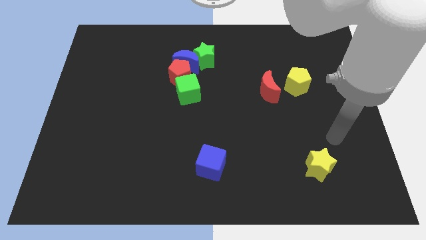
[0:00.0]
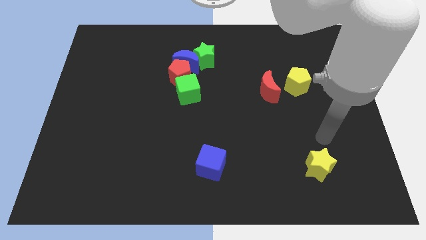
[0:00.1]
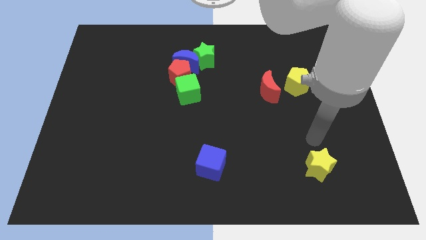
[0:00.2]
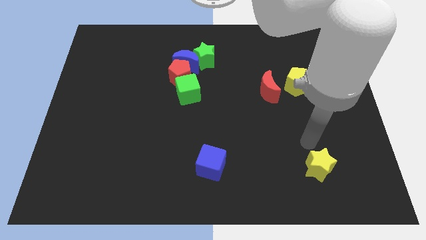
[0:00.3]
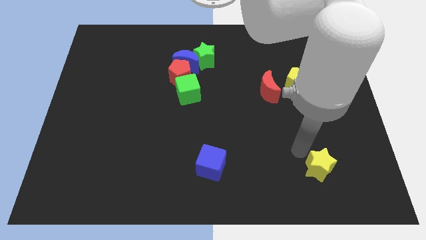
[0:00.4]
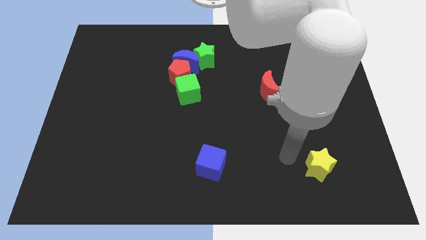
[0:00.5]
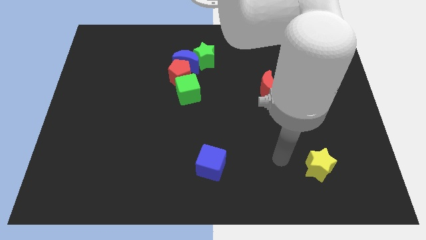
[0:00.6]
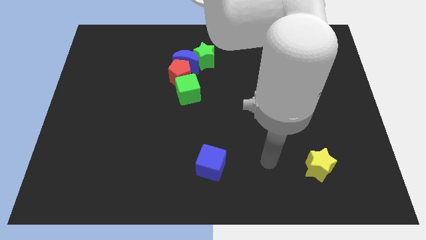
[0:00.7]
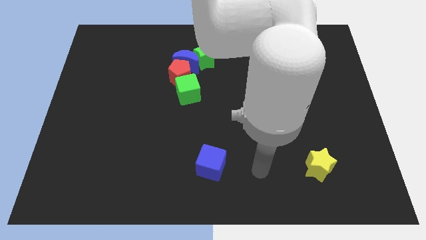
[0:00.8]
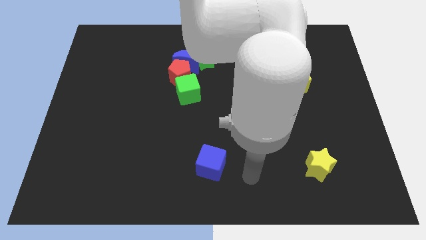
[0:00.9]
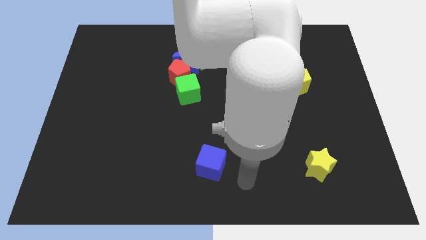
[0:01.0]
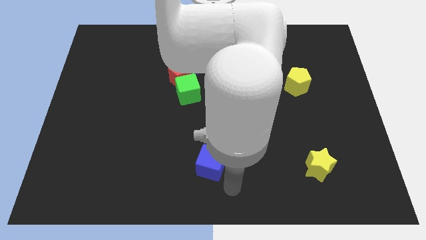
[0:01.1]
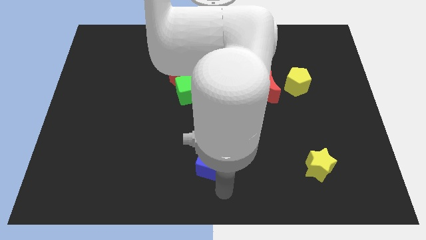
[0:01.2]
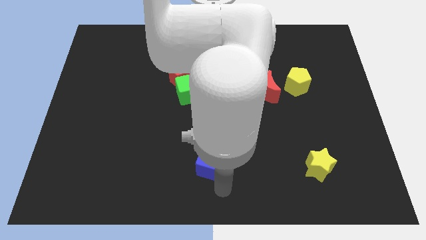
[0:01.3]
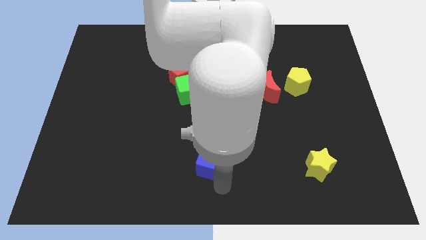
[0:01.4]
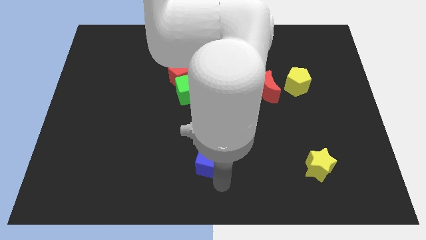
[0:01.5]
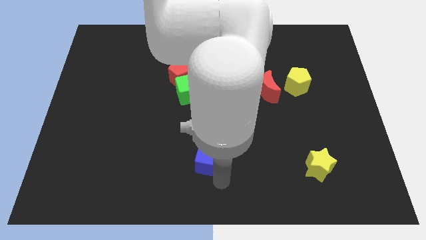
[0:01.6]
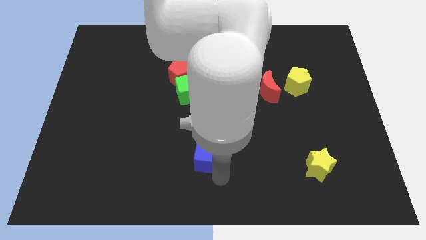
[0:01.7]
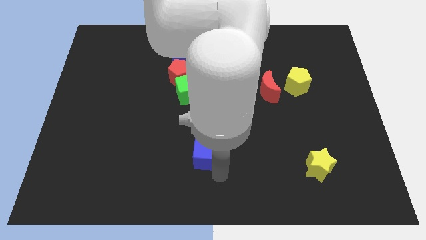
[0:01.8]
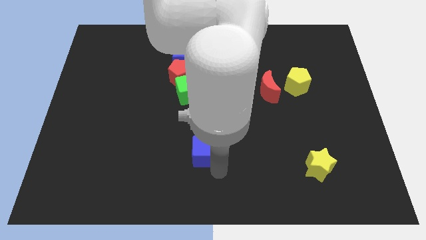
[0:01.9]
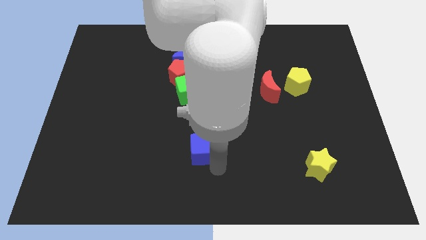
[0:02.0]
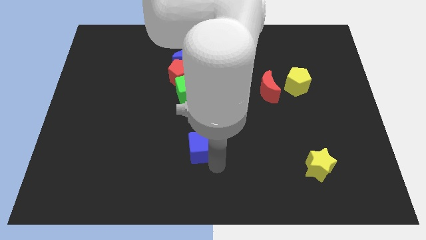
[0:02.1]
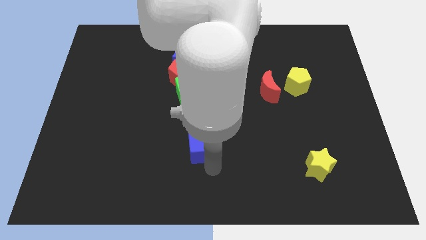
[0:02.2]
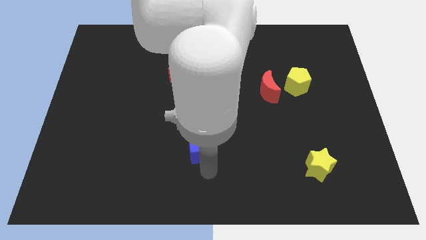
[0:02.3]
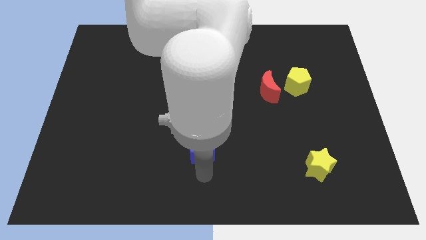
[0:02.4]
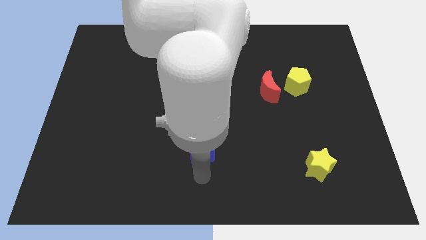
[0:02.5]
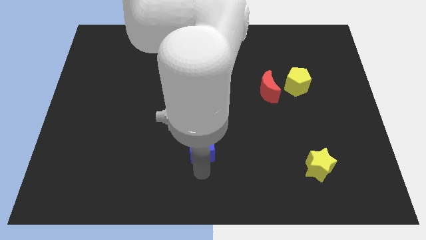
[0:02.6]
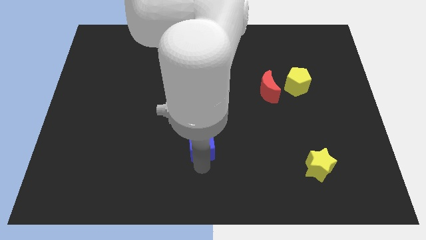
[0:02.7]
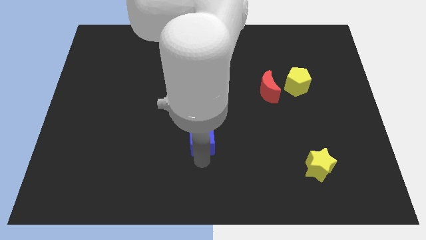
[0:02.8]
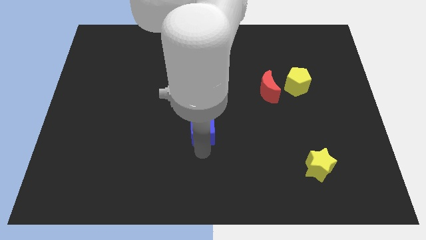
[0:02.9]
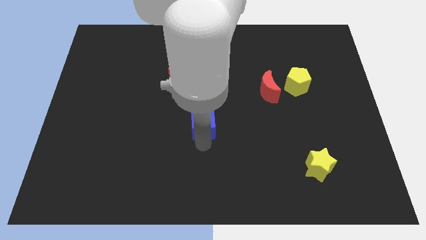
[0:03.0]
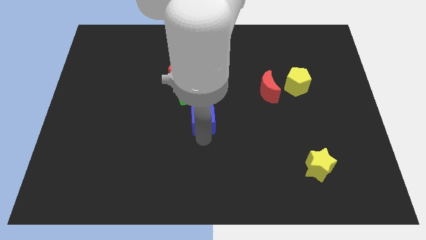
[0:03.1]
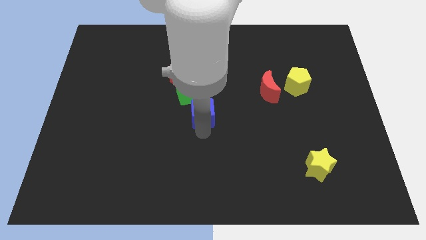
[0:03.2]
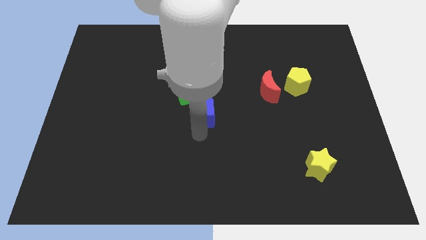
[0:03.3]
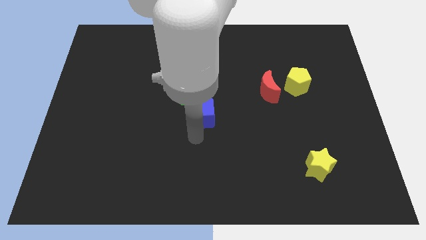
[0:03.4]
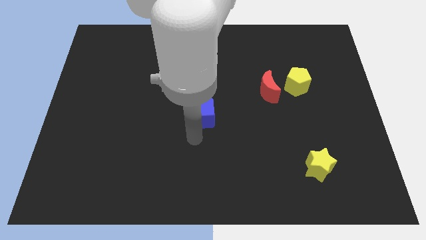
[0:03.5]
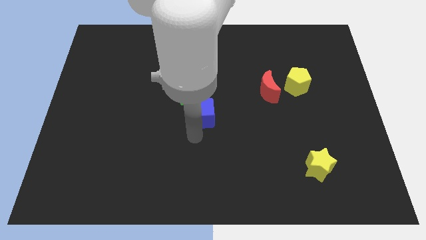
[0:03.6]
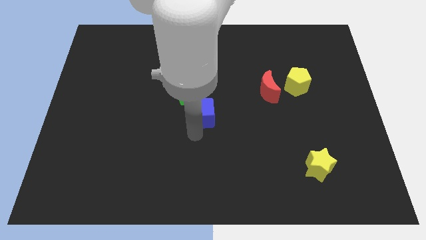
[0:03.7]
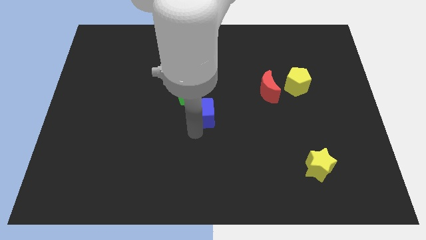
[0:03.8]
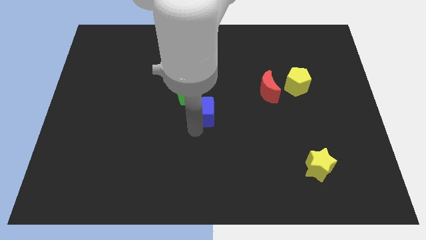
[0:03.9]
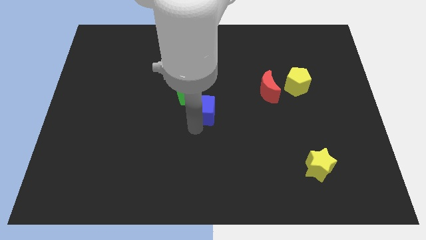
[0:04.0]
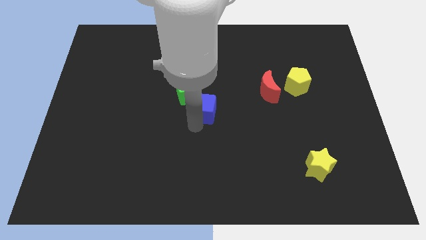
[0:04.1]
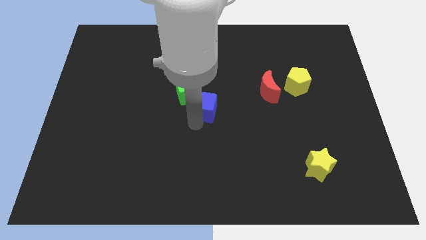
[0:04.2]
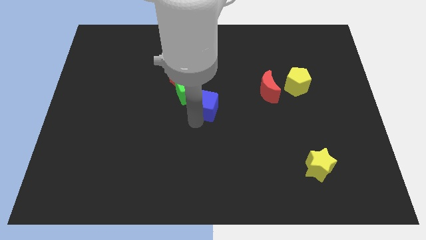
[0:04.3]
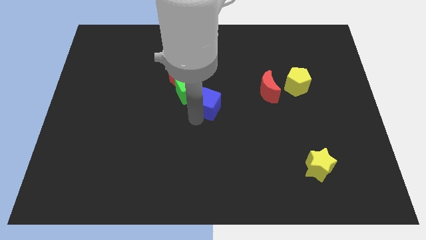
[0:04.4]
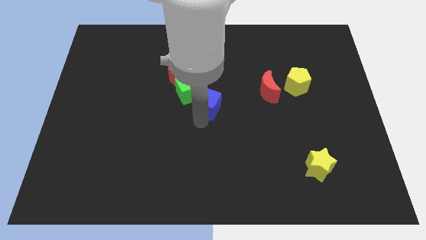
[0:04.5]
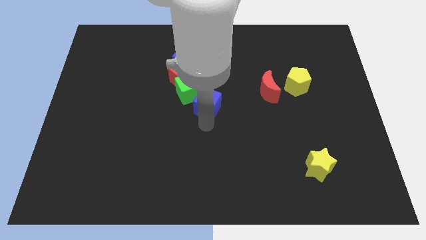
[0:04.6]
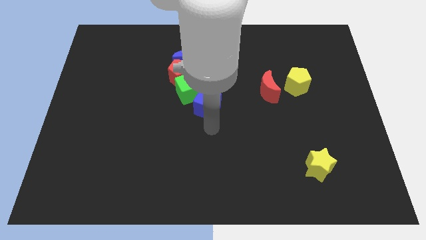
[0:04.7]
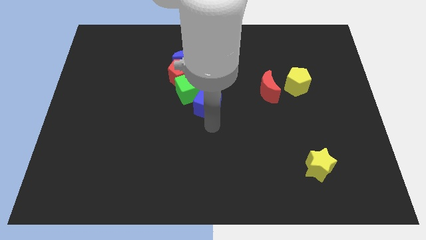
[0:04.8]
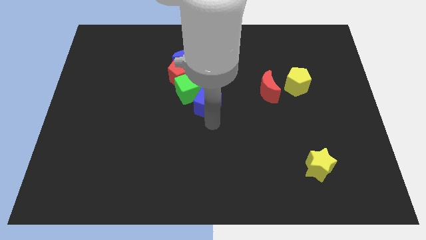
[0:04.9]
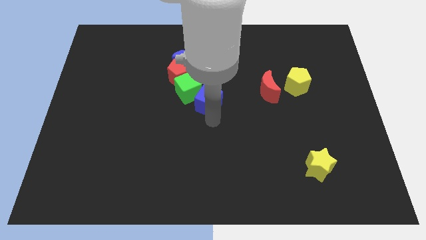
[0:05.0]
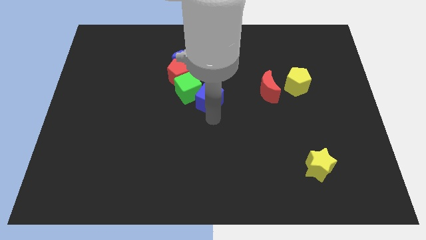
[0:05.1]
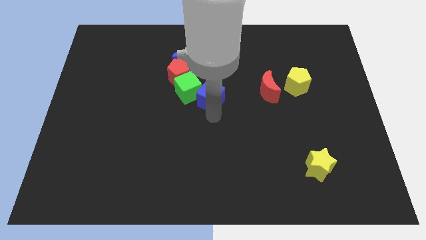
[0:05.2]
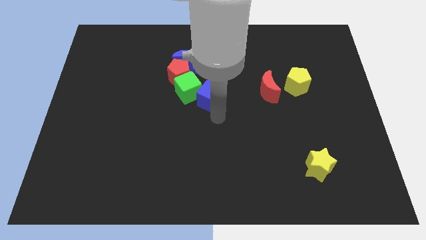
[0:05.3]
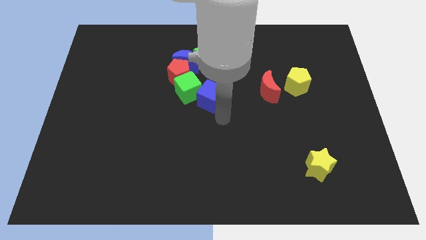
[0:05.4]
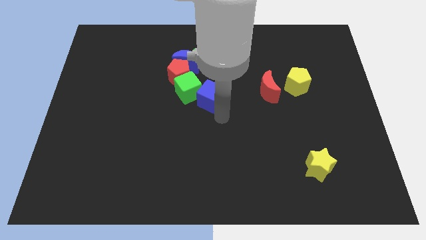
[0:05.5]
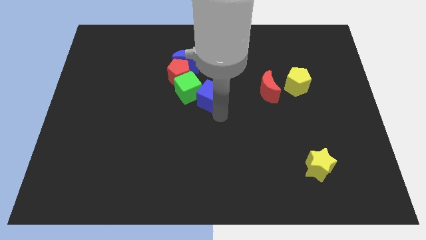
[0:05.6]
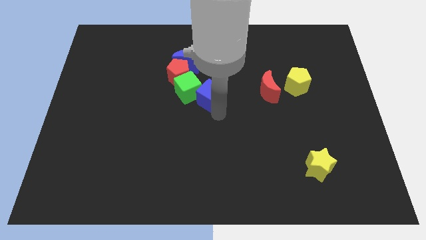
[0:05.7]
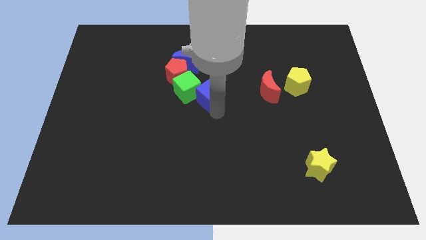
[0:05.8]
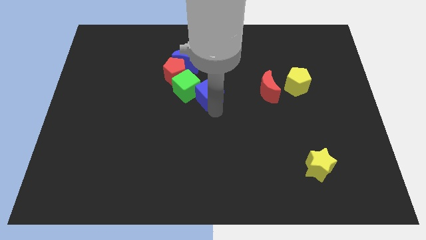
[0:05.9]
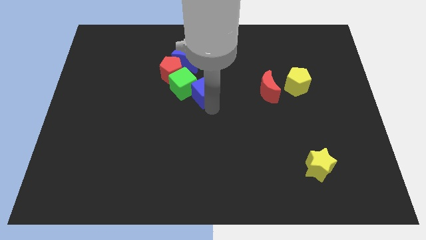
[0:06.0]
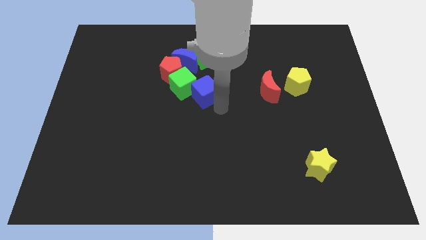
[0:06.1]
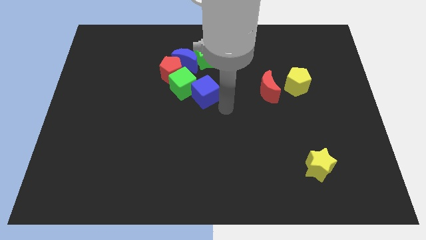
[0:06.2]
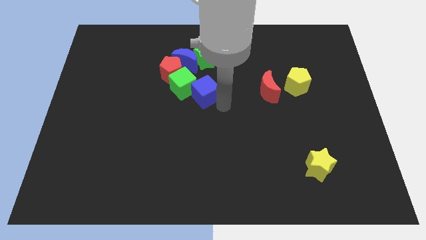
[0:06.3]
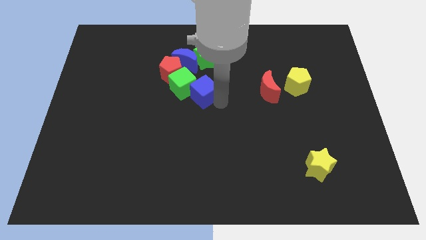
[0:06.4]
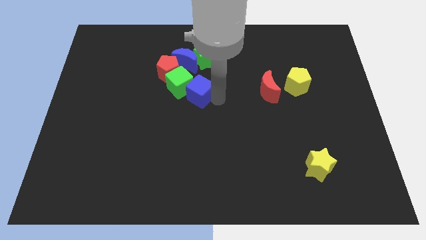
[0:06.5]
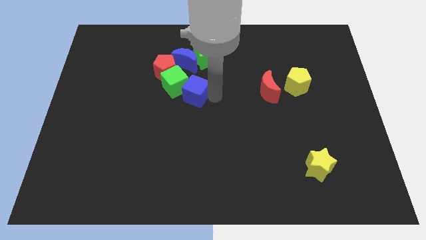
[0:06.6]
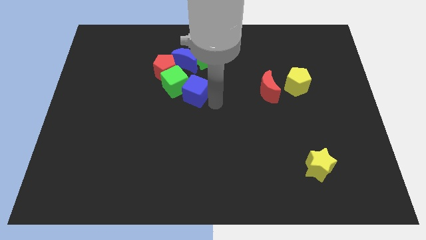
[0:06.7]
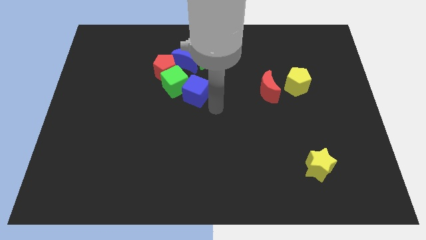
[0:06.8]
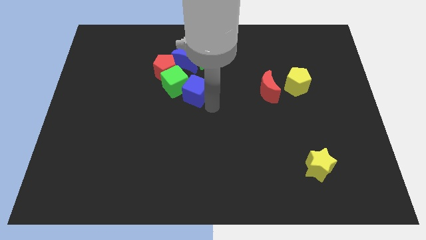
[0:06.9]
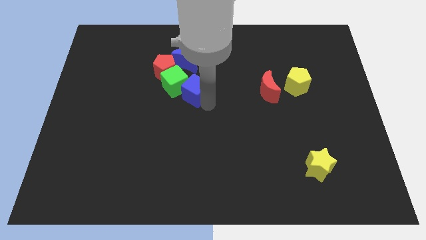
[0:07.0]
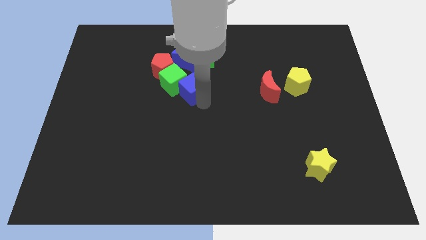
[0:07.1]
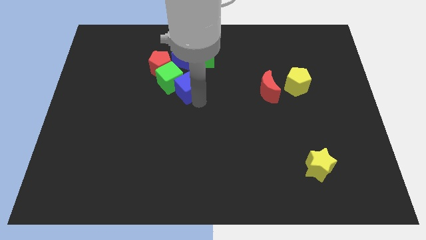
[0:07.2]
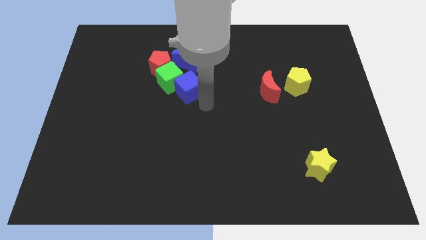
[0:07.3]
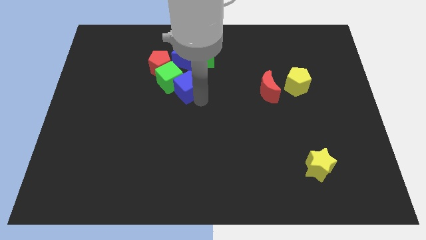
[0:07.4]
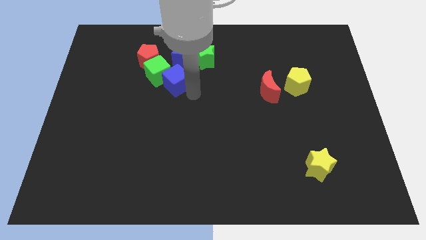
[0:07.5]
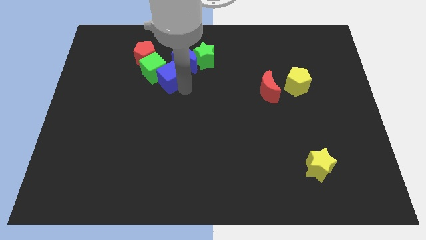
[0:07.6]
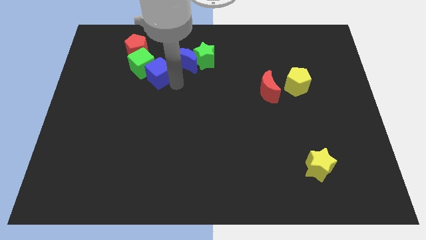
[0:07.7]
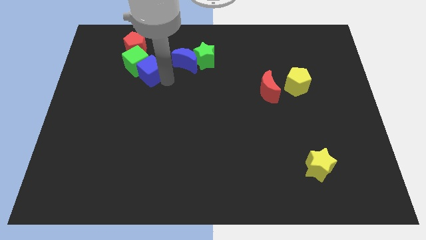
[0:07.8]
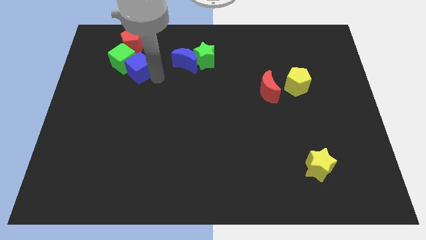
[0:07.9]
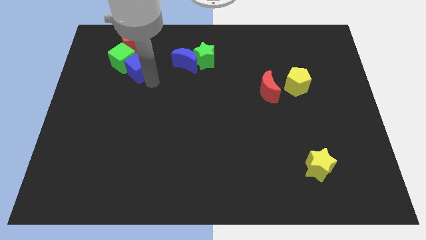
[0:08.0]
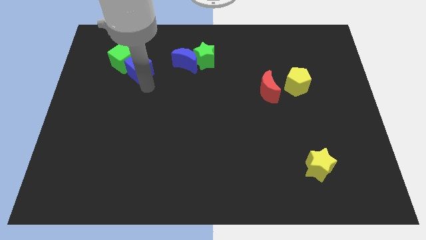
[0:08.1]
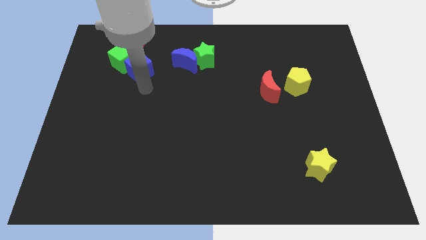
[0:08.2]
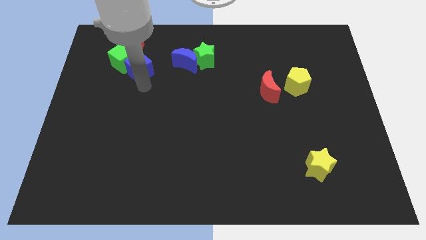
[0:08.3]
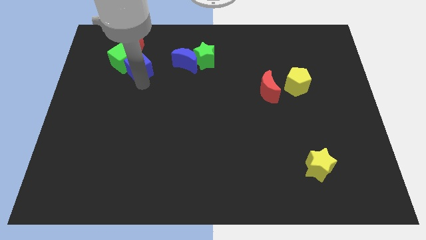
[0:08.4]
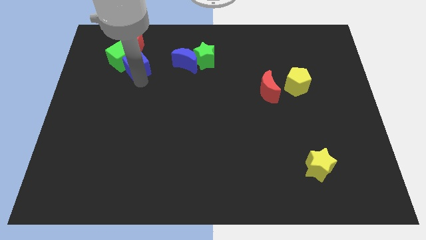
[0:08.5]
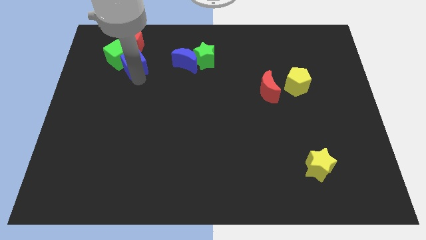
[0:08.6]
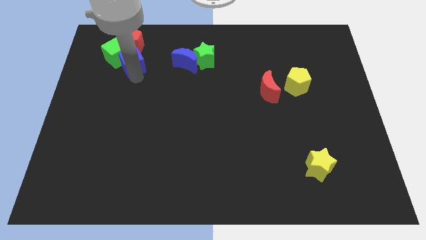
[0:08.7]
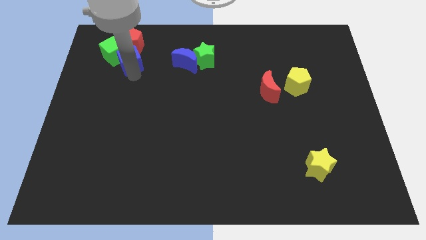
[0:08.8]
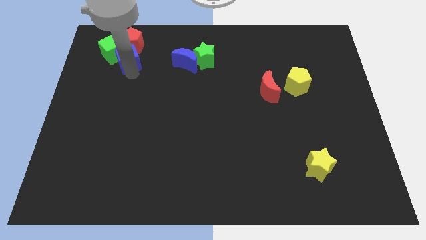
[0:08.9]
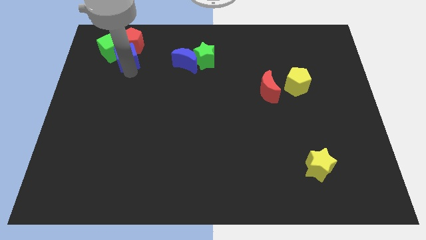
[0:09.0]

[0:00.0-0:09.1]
slide the blue cube to the red pentagon
